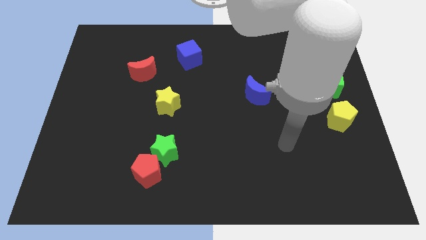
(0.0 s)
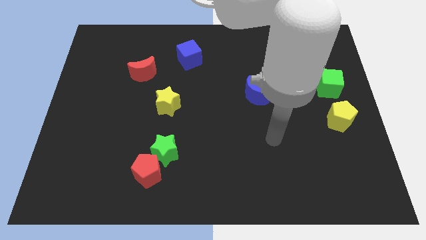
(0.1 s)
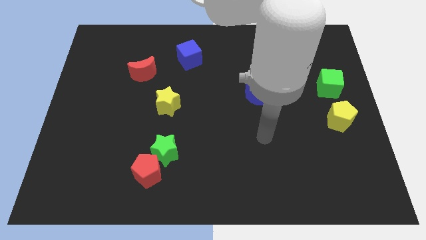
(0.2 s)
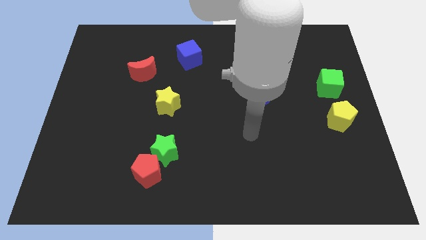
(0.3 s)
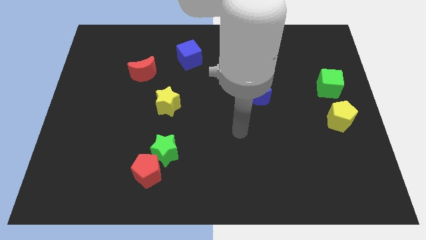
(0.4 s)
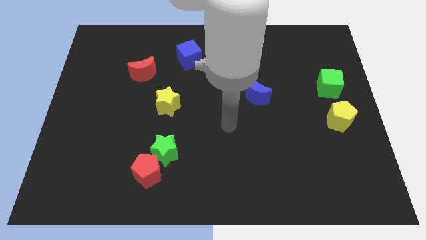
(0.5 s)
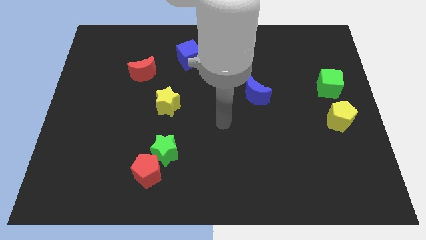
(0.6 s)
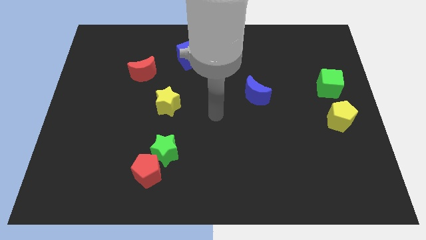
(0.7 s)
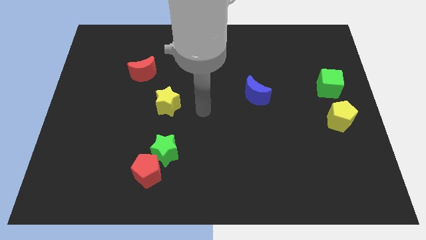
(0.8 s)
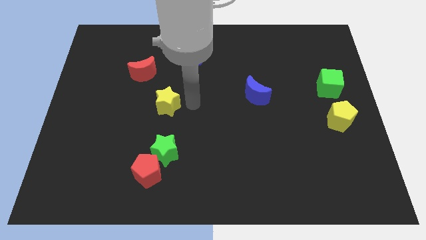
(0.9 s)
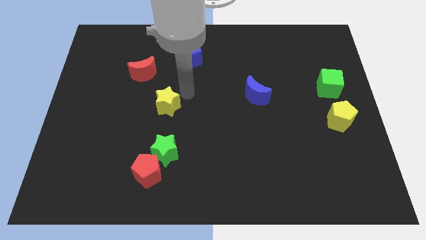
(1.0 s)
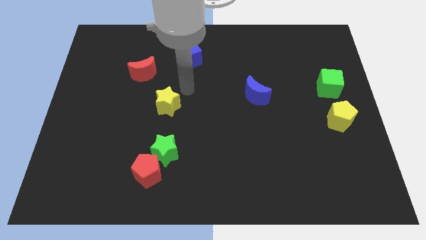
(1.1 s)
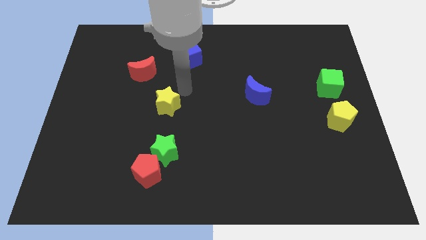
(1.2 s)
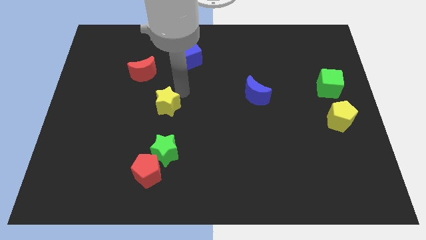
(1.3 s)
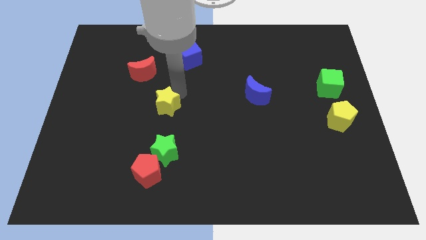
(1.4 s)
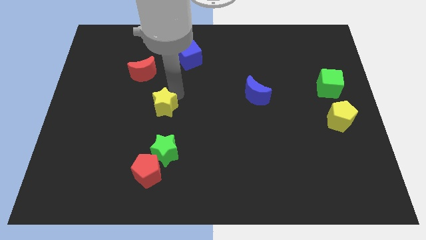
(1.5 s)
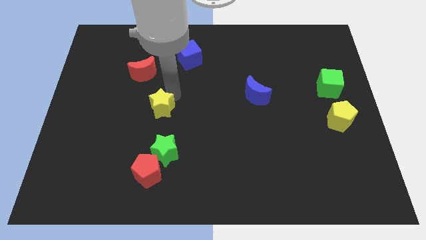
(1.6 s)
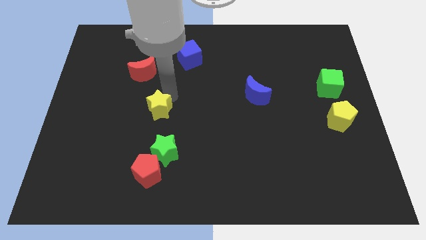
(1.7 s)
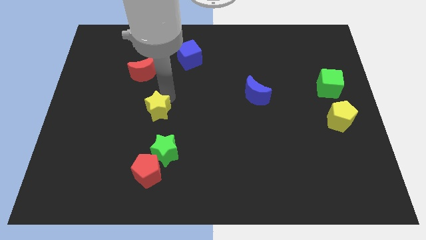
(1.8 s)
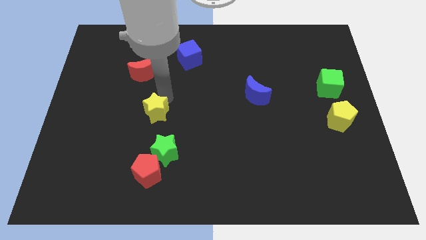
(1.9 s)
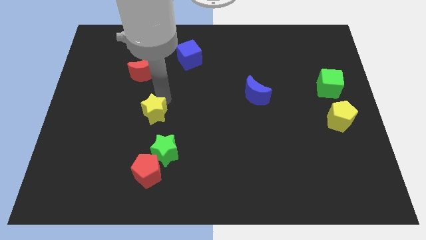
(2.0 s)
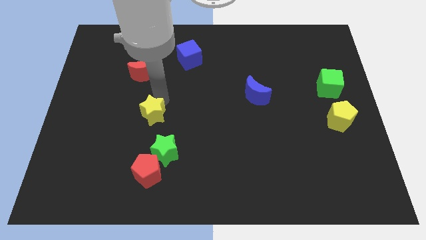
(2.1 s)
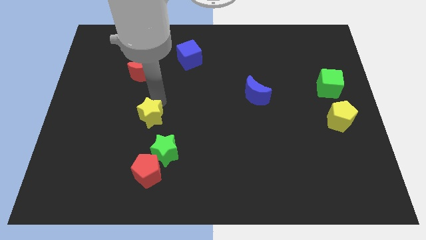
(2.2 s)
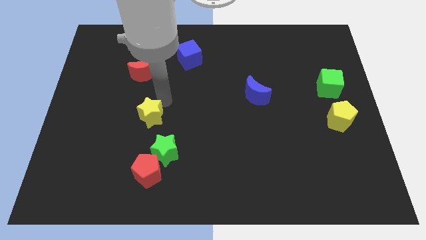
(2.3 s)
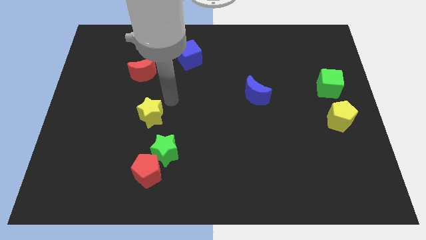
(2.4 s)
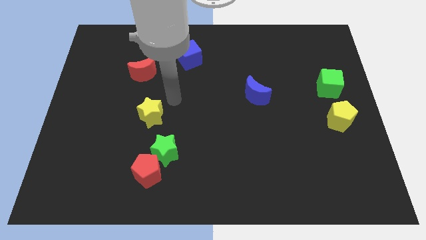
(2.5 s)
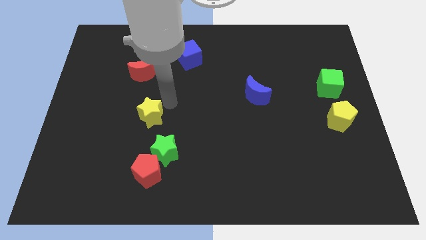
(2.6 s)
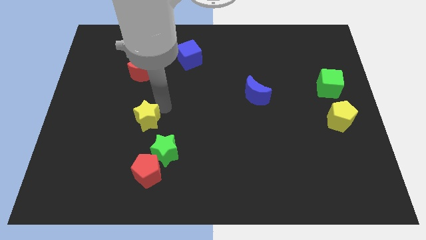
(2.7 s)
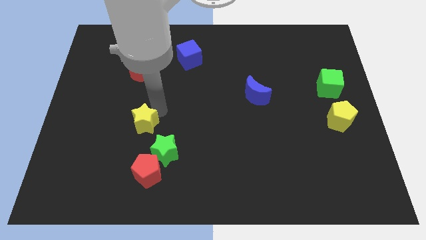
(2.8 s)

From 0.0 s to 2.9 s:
slightly slide the yellow star down and to the left

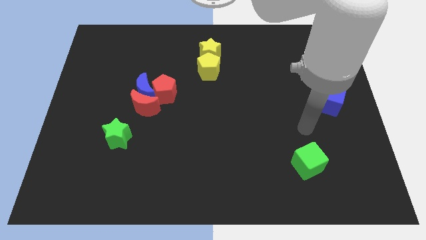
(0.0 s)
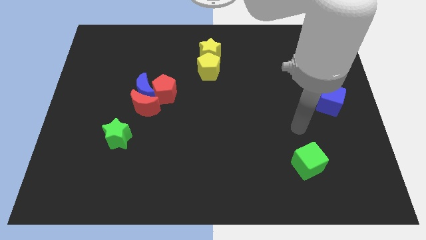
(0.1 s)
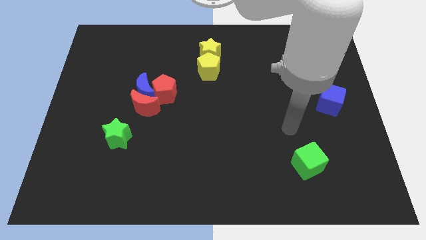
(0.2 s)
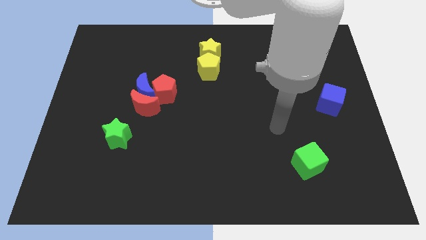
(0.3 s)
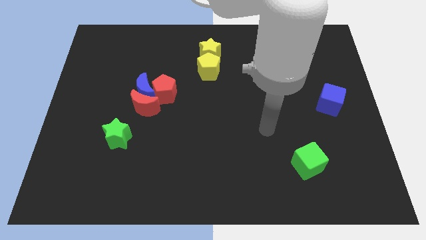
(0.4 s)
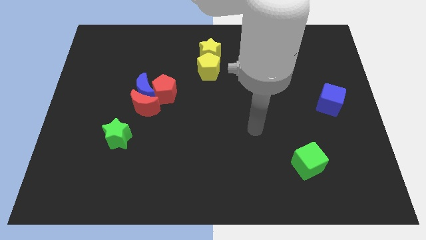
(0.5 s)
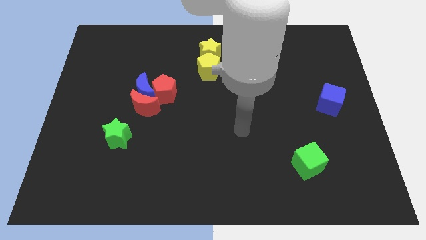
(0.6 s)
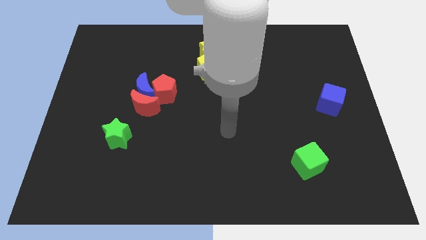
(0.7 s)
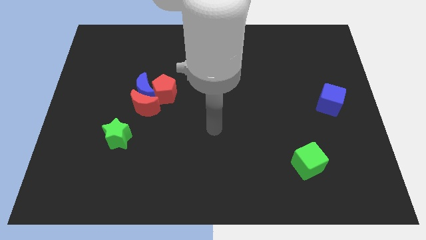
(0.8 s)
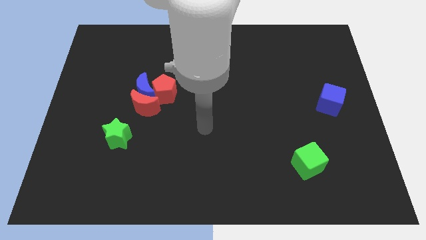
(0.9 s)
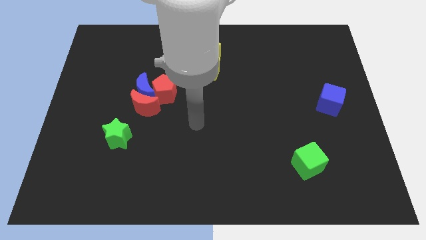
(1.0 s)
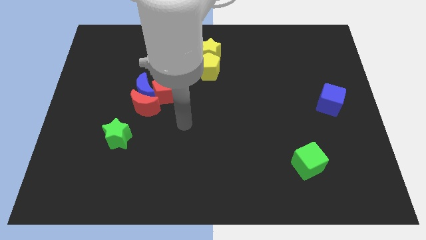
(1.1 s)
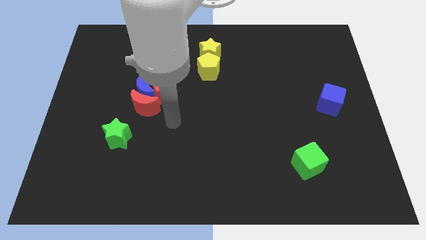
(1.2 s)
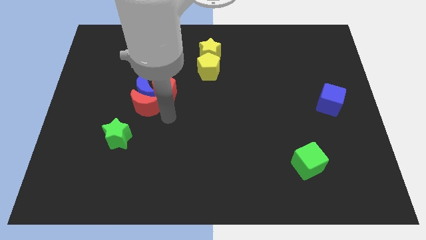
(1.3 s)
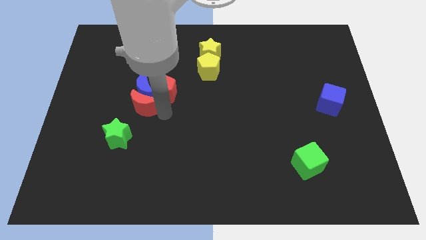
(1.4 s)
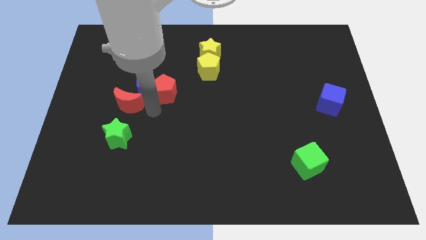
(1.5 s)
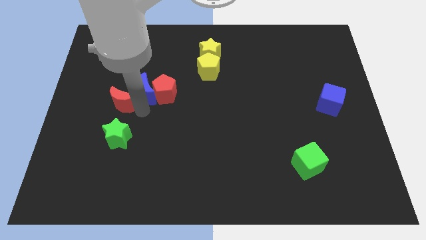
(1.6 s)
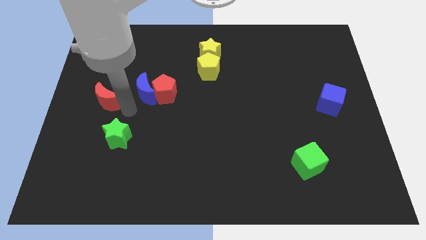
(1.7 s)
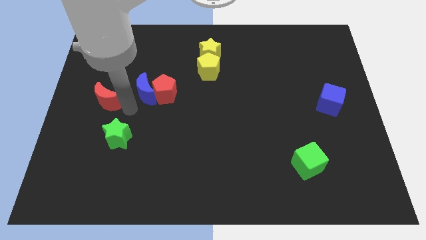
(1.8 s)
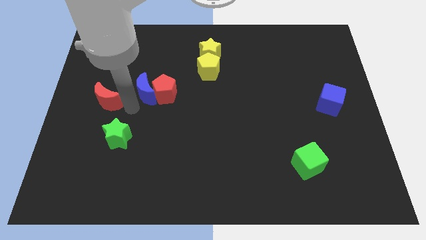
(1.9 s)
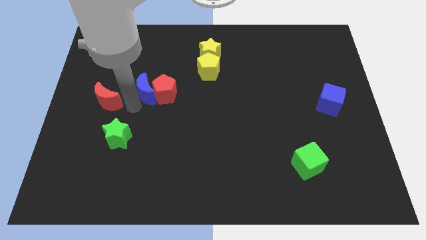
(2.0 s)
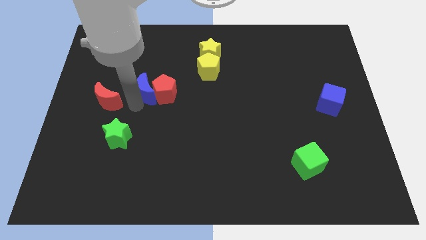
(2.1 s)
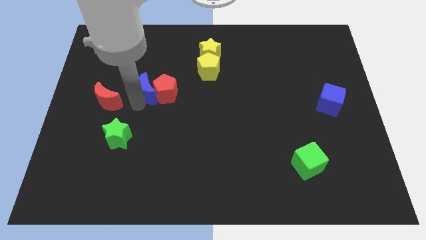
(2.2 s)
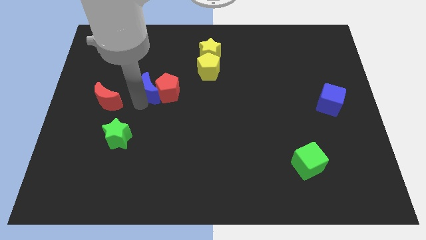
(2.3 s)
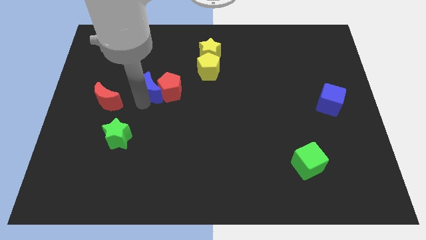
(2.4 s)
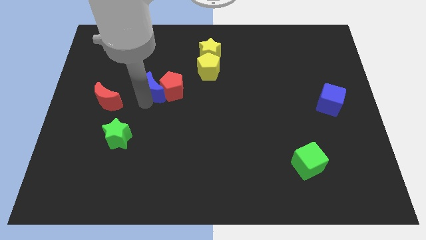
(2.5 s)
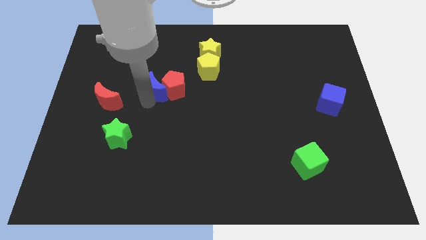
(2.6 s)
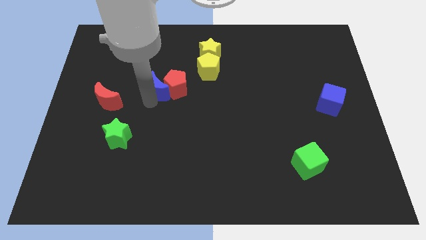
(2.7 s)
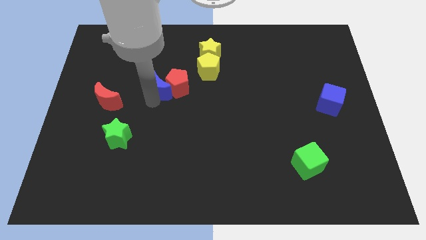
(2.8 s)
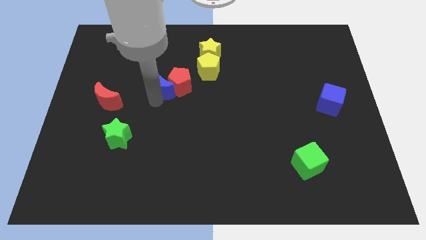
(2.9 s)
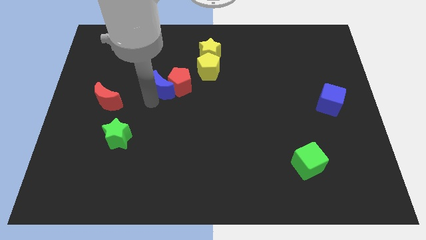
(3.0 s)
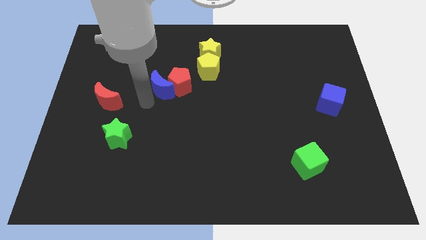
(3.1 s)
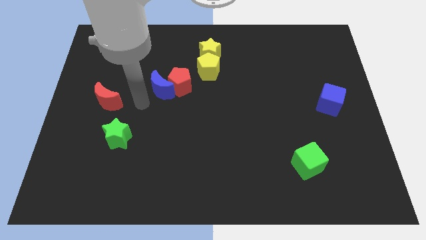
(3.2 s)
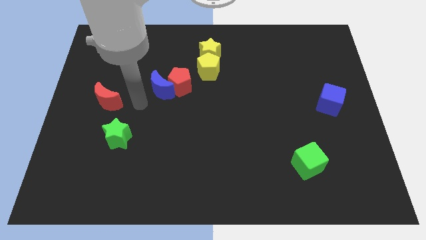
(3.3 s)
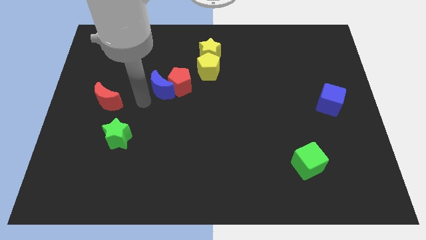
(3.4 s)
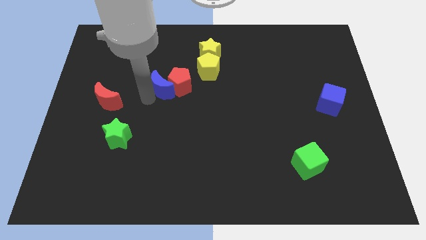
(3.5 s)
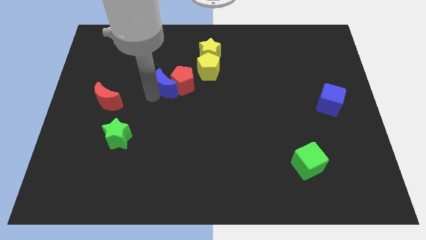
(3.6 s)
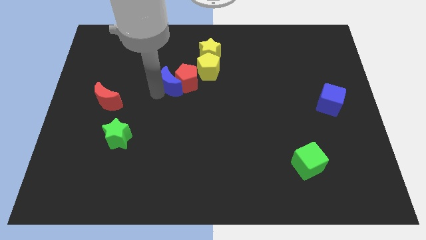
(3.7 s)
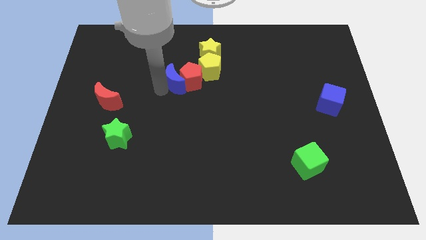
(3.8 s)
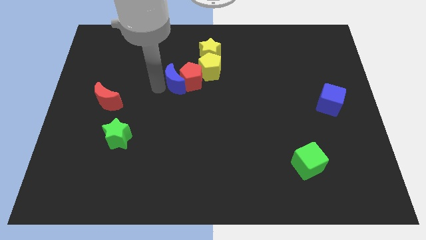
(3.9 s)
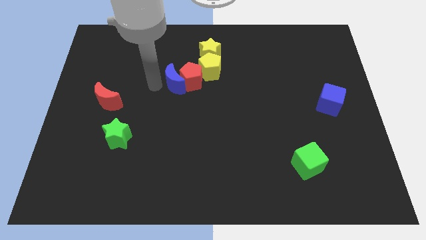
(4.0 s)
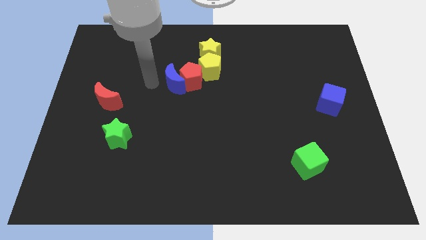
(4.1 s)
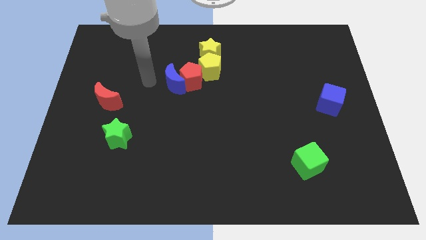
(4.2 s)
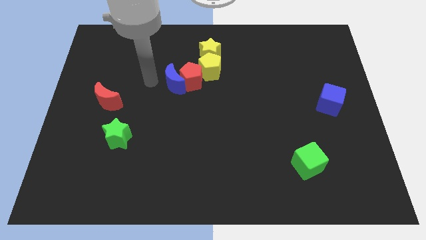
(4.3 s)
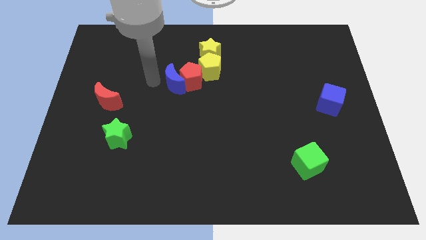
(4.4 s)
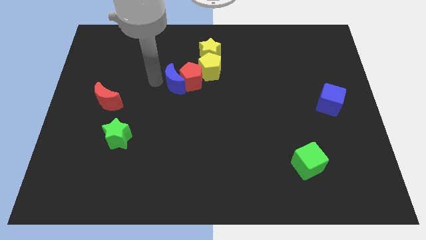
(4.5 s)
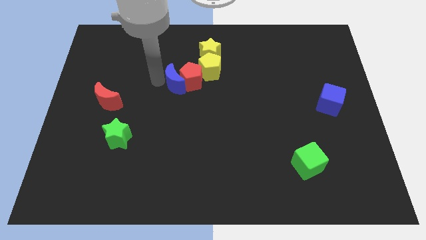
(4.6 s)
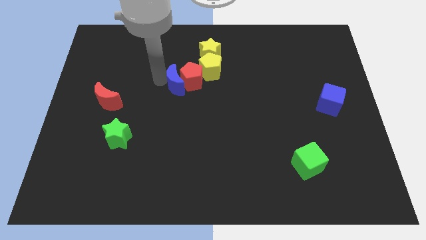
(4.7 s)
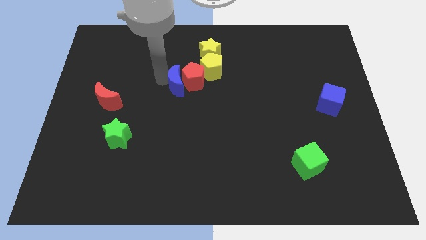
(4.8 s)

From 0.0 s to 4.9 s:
slightly move the blue moon right

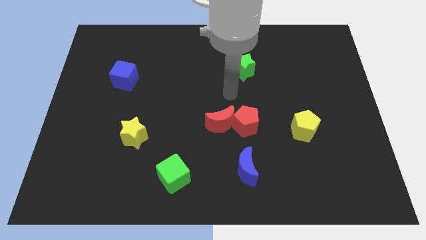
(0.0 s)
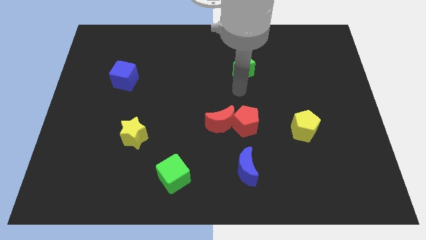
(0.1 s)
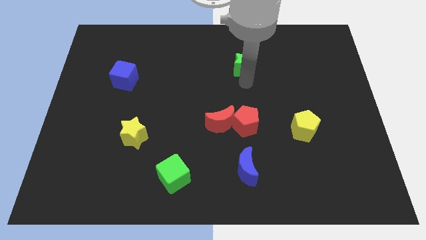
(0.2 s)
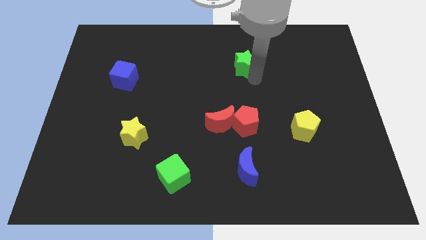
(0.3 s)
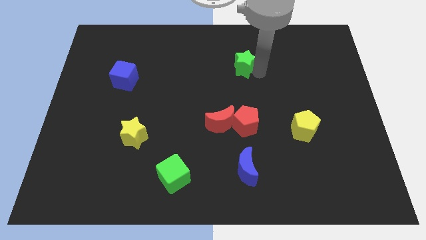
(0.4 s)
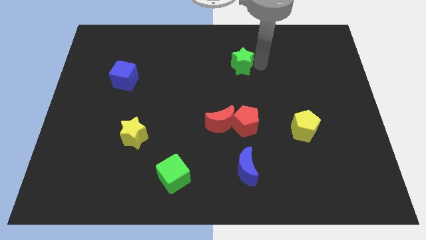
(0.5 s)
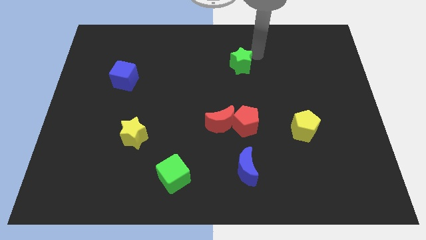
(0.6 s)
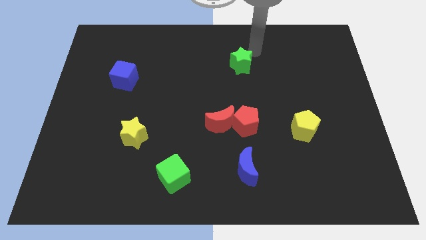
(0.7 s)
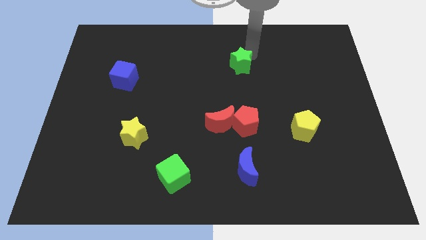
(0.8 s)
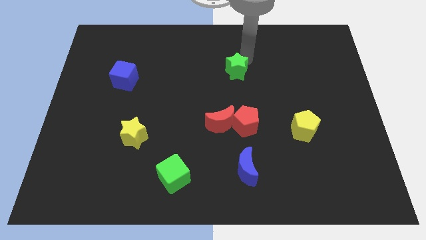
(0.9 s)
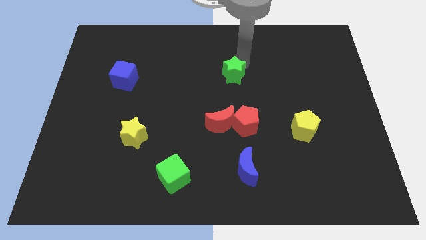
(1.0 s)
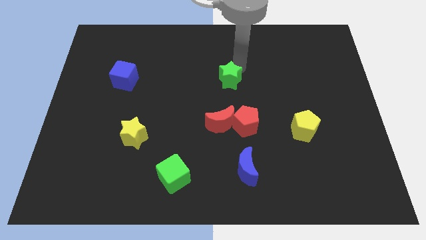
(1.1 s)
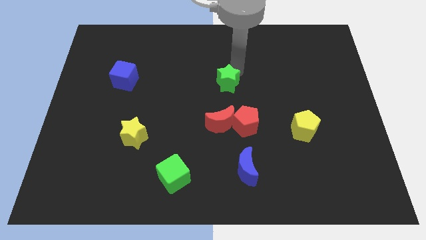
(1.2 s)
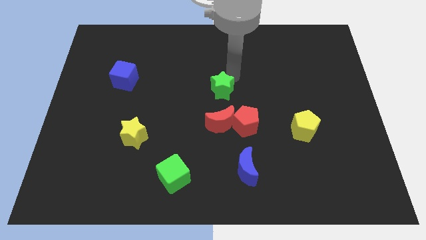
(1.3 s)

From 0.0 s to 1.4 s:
slightly push the green star down and then left
